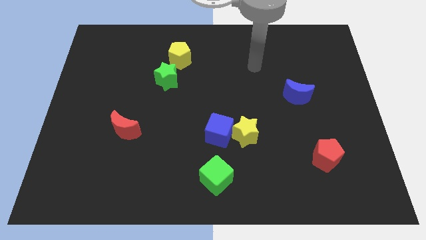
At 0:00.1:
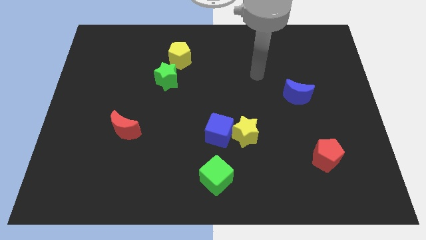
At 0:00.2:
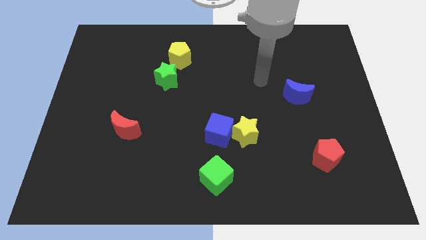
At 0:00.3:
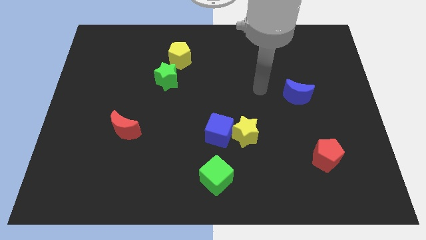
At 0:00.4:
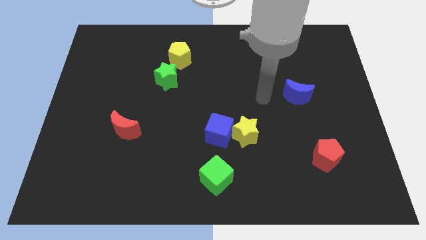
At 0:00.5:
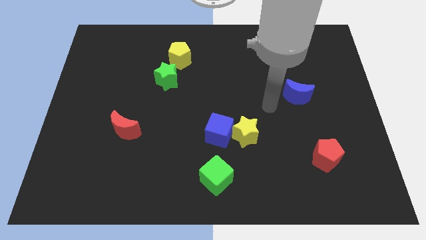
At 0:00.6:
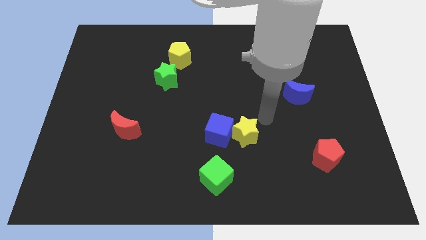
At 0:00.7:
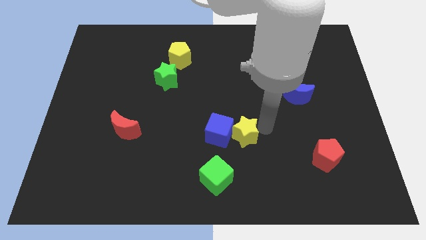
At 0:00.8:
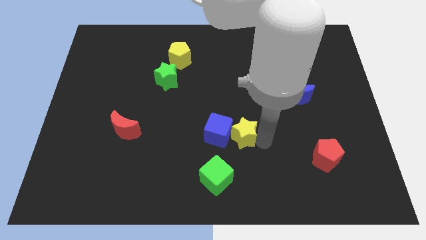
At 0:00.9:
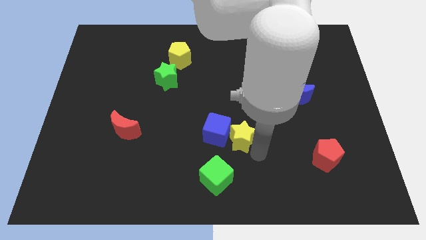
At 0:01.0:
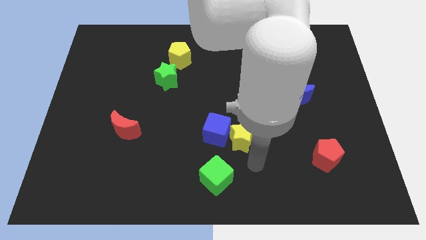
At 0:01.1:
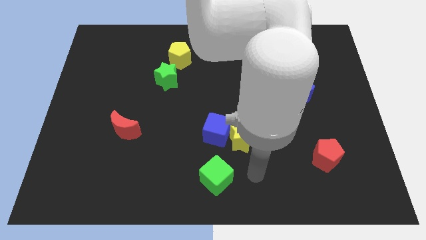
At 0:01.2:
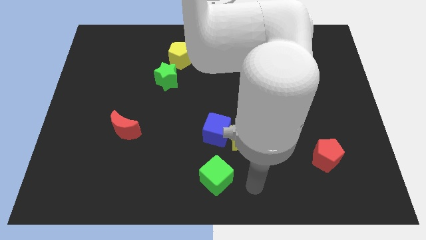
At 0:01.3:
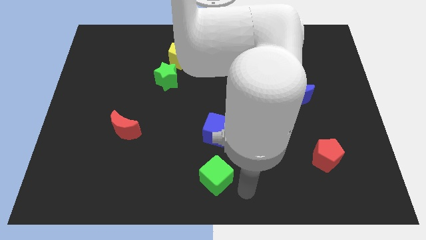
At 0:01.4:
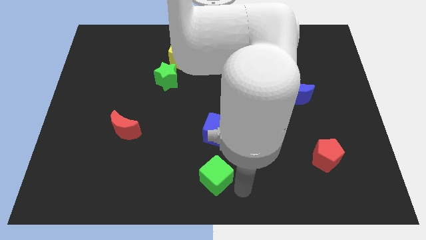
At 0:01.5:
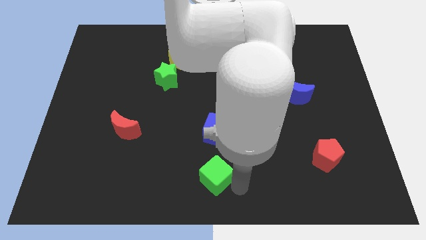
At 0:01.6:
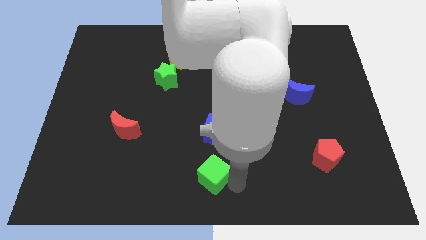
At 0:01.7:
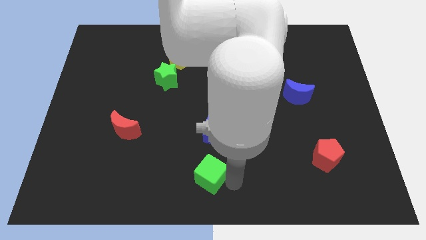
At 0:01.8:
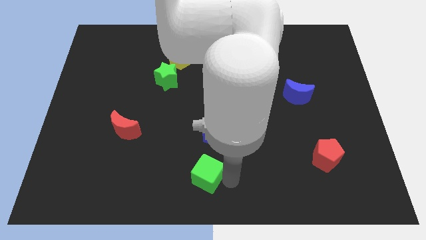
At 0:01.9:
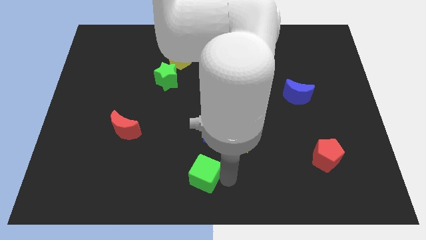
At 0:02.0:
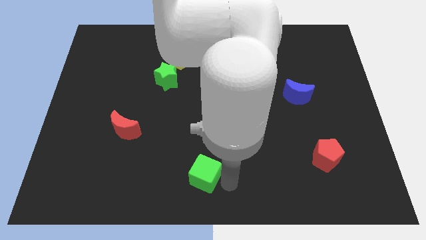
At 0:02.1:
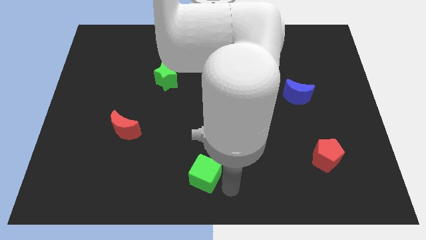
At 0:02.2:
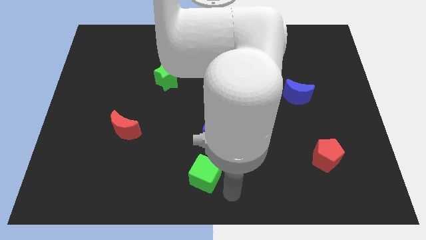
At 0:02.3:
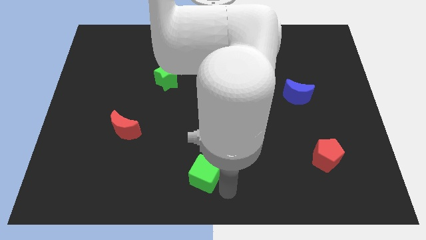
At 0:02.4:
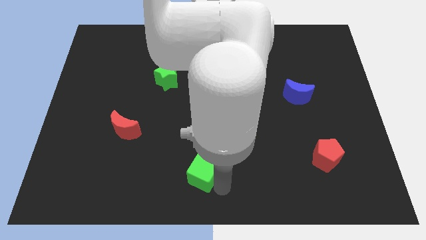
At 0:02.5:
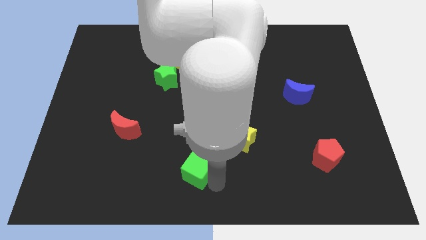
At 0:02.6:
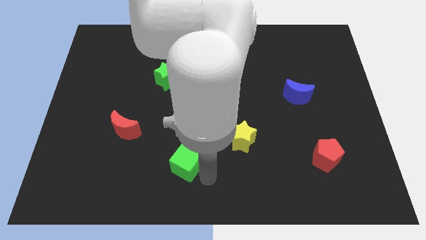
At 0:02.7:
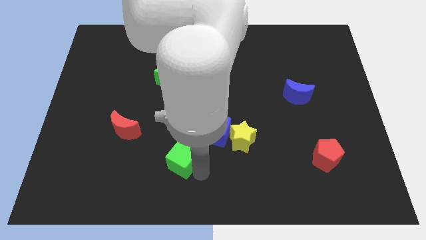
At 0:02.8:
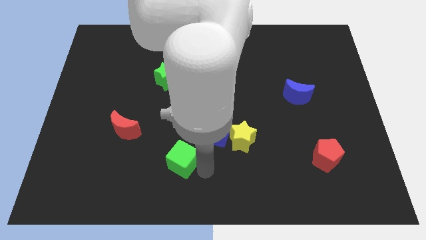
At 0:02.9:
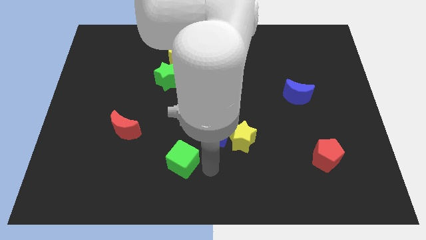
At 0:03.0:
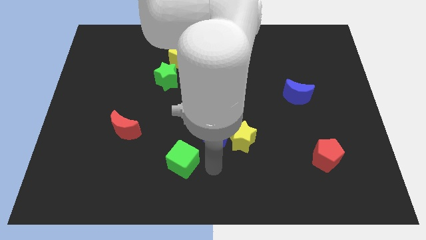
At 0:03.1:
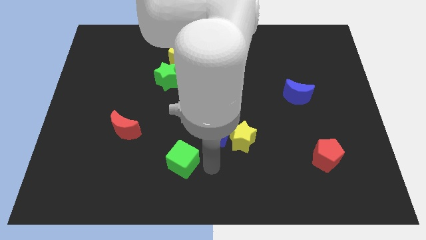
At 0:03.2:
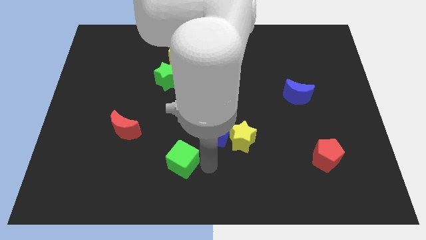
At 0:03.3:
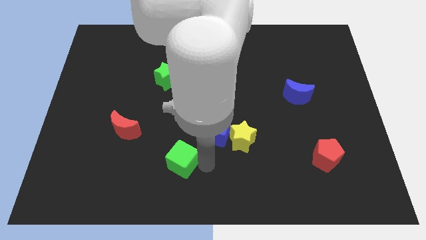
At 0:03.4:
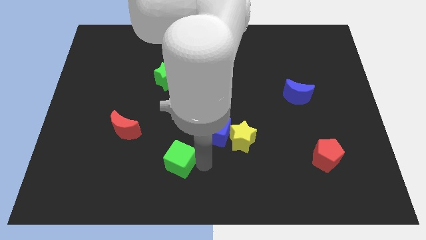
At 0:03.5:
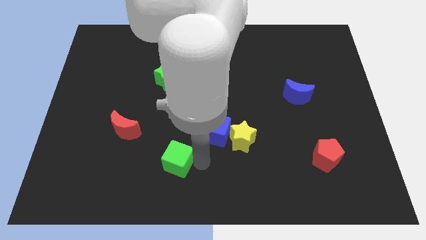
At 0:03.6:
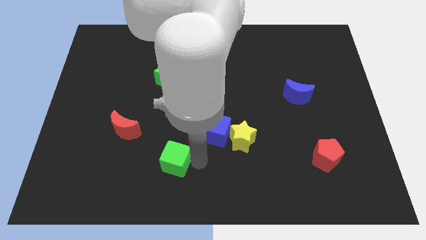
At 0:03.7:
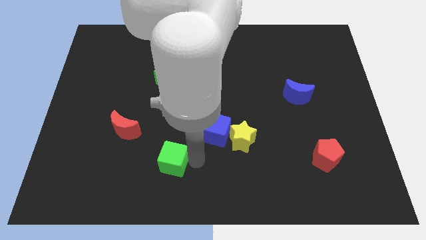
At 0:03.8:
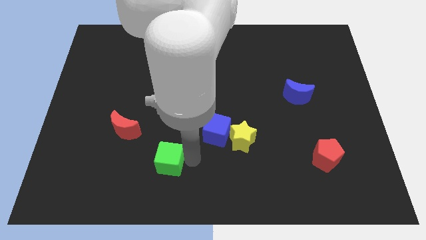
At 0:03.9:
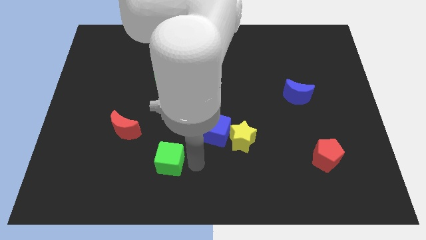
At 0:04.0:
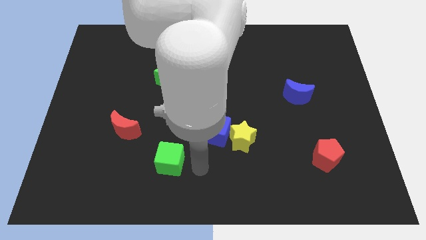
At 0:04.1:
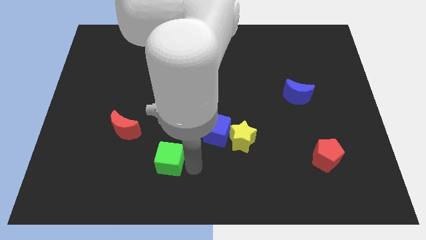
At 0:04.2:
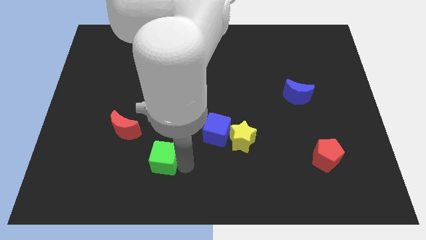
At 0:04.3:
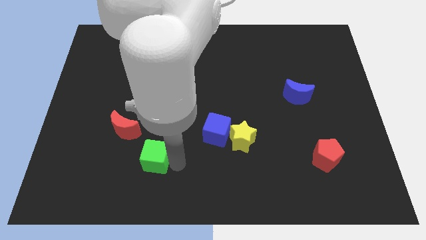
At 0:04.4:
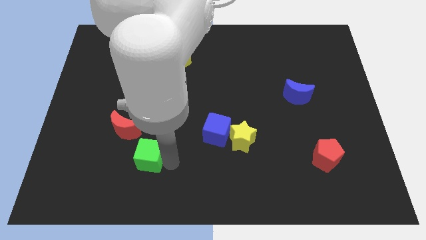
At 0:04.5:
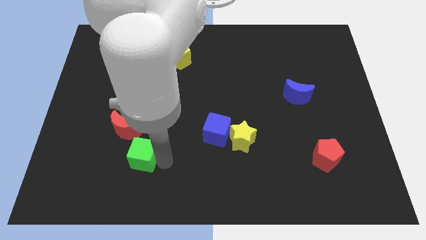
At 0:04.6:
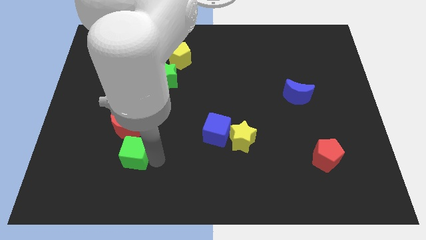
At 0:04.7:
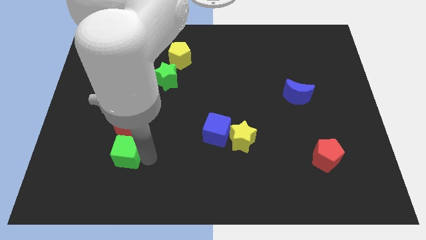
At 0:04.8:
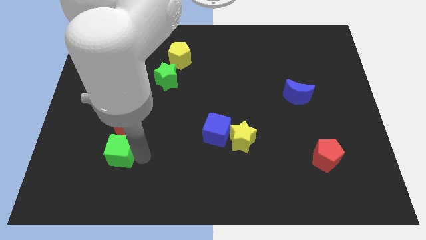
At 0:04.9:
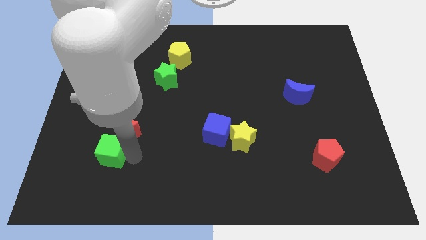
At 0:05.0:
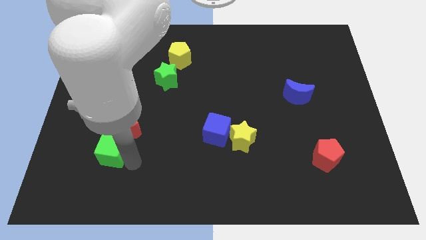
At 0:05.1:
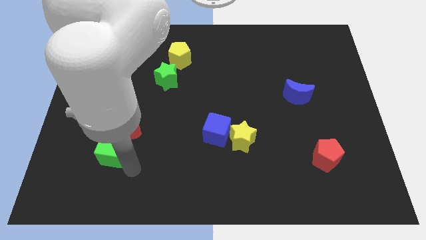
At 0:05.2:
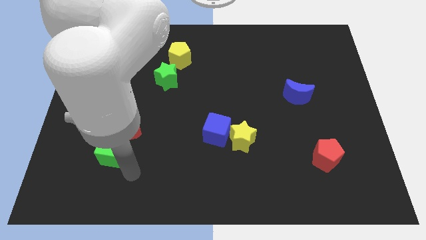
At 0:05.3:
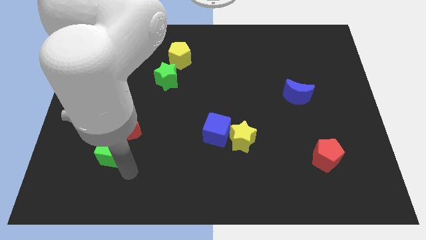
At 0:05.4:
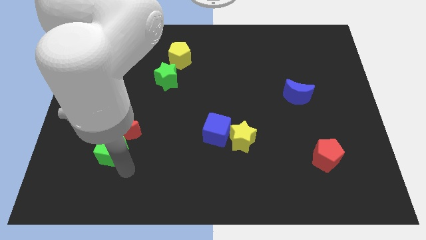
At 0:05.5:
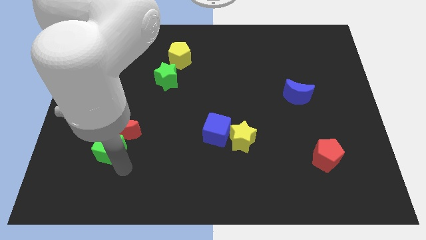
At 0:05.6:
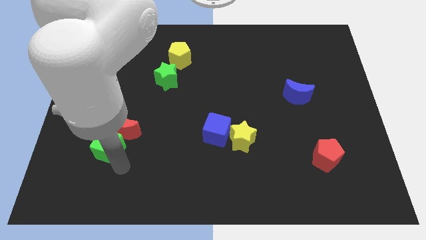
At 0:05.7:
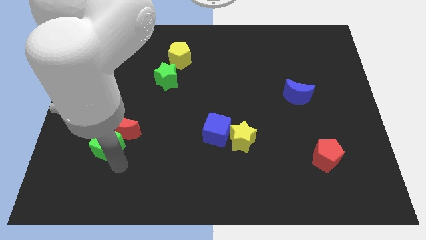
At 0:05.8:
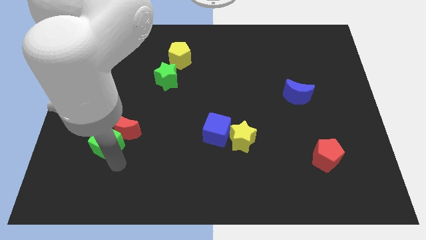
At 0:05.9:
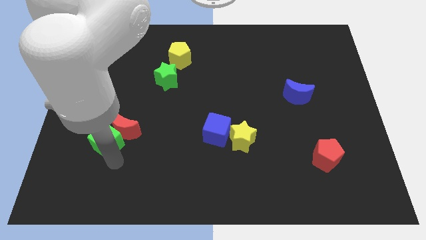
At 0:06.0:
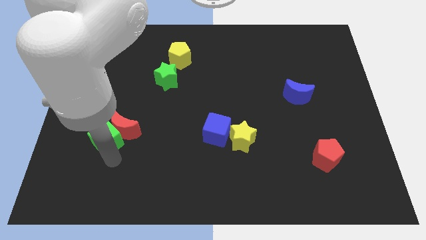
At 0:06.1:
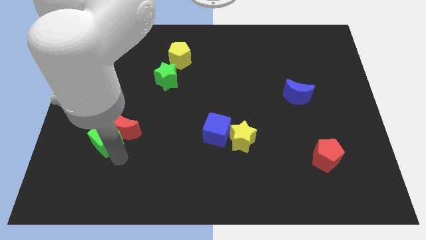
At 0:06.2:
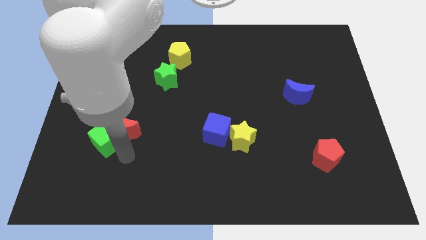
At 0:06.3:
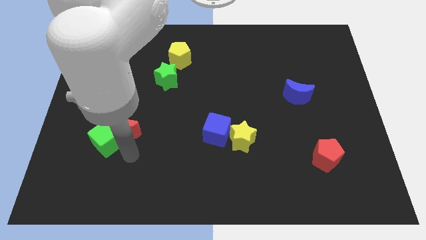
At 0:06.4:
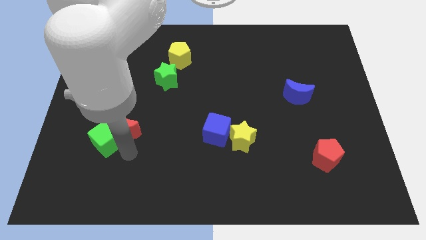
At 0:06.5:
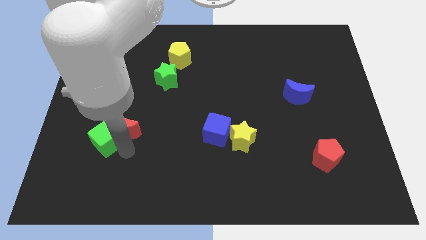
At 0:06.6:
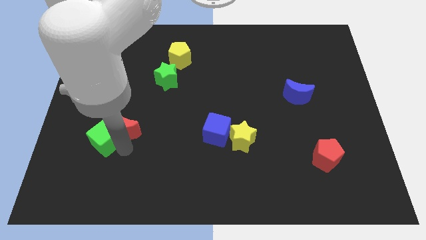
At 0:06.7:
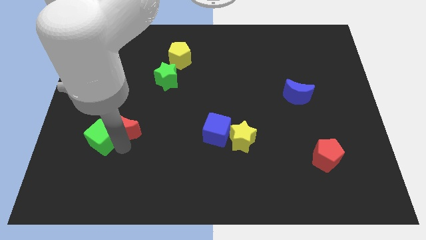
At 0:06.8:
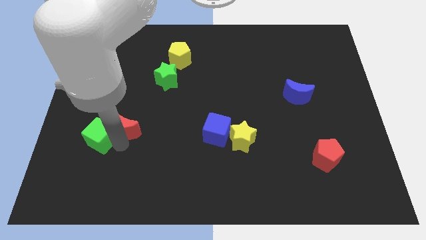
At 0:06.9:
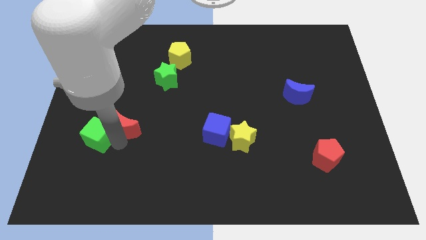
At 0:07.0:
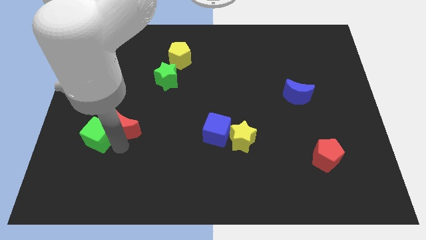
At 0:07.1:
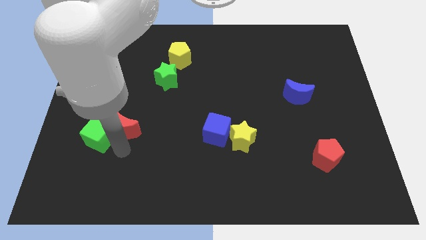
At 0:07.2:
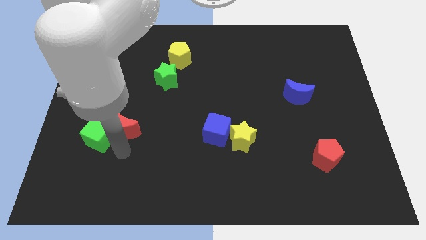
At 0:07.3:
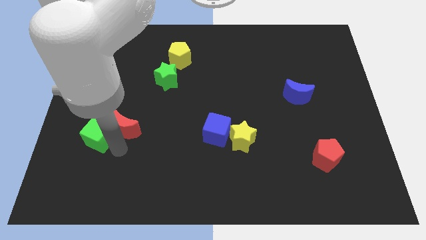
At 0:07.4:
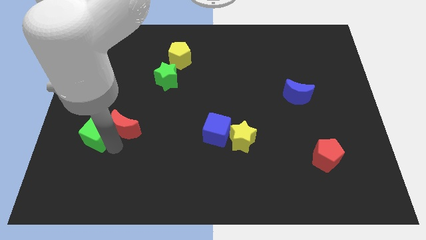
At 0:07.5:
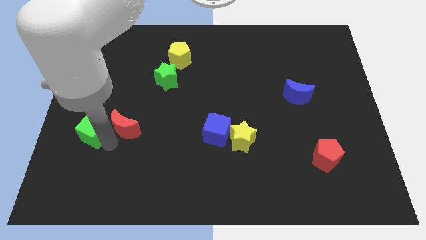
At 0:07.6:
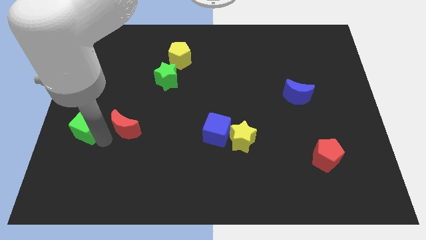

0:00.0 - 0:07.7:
put the green cube to the left side
